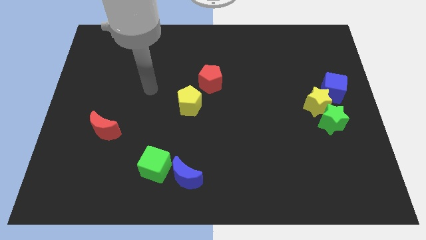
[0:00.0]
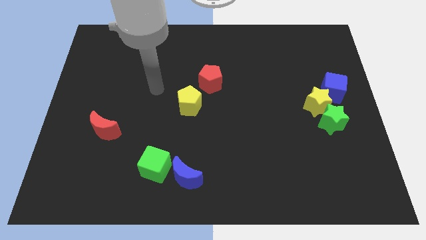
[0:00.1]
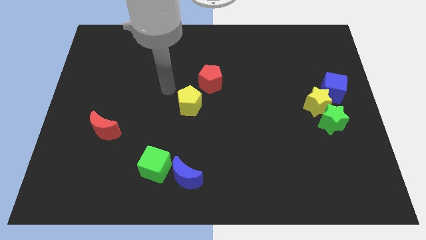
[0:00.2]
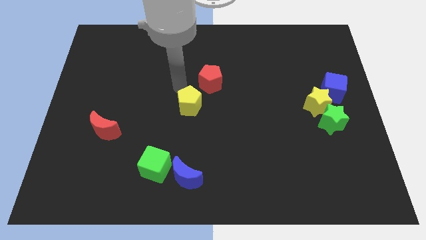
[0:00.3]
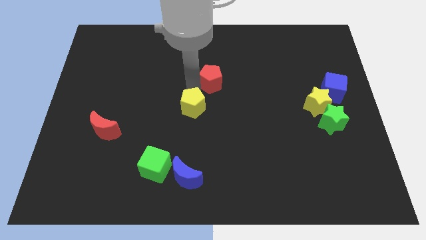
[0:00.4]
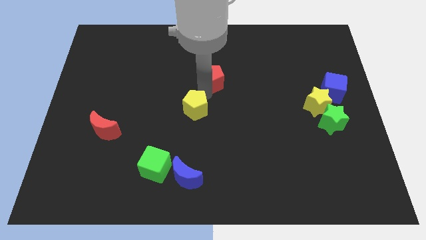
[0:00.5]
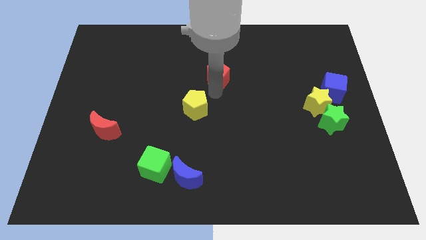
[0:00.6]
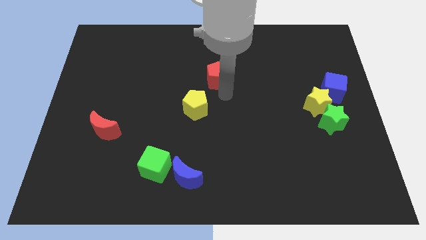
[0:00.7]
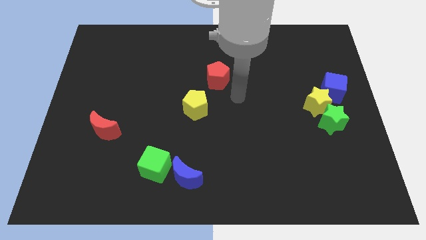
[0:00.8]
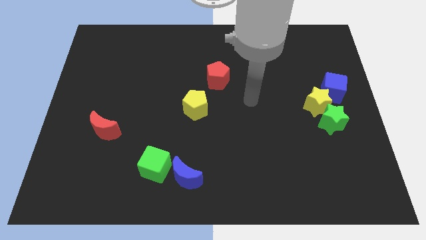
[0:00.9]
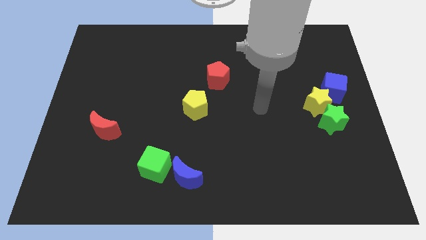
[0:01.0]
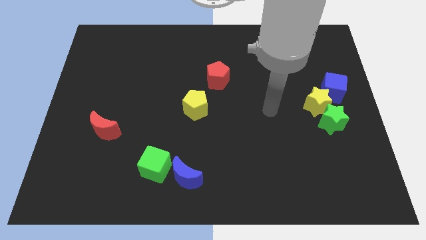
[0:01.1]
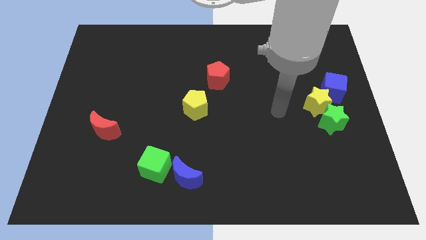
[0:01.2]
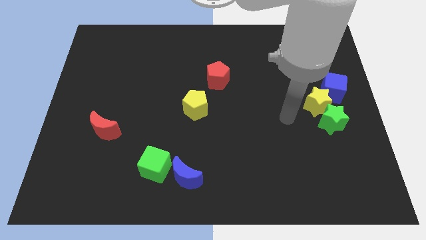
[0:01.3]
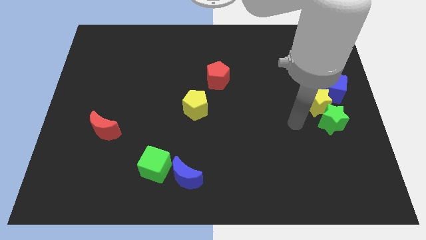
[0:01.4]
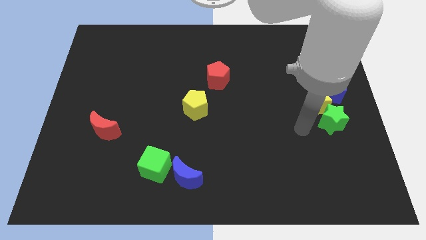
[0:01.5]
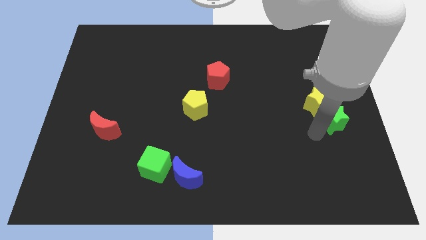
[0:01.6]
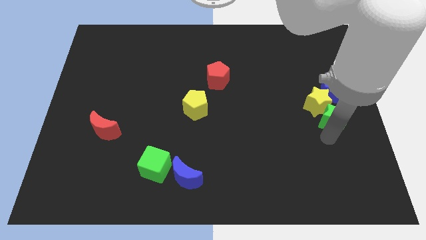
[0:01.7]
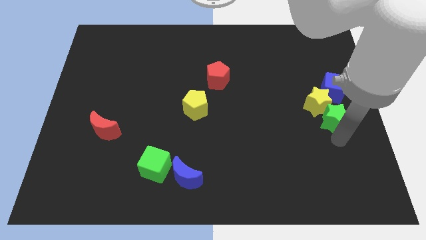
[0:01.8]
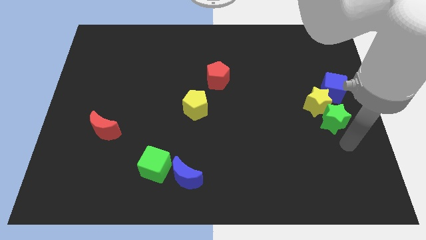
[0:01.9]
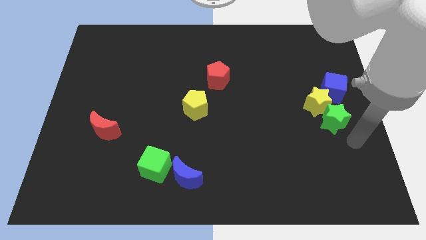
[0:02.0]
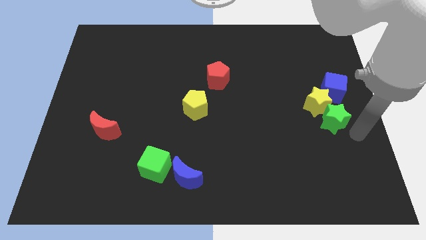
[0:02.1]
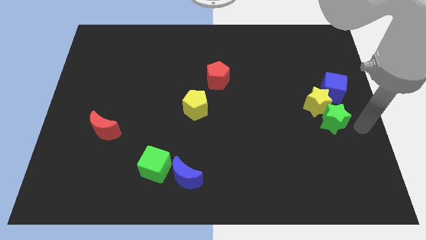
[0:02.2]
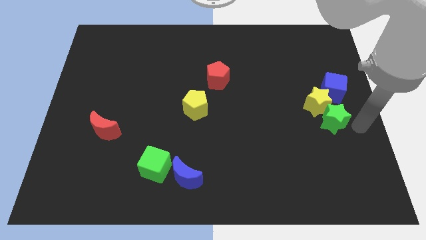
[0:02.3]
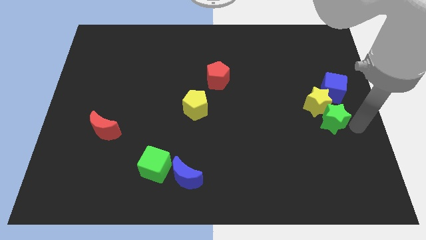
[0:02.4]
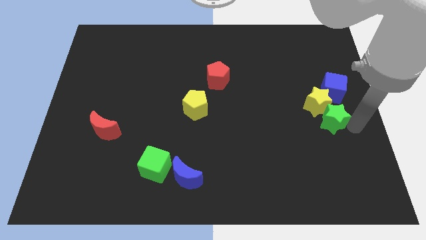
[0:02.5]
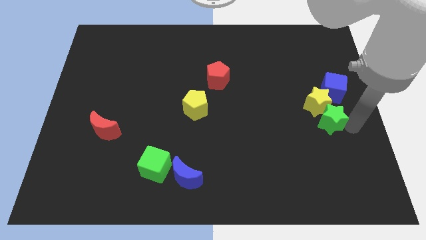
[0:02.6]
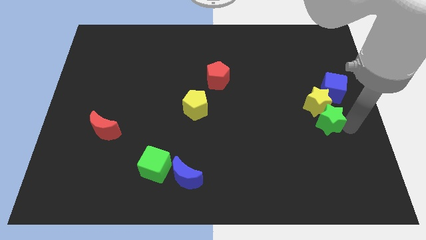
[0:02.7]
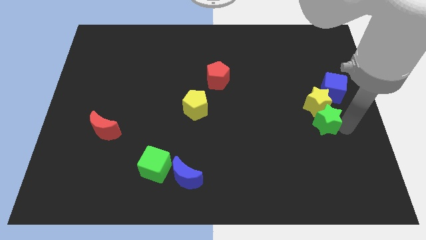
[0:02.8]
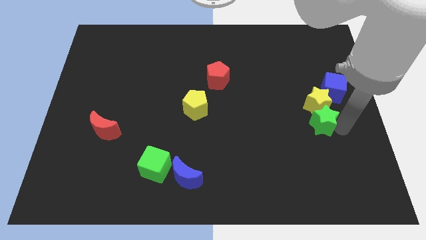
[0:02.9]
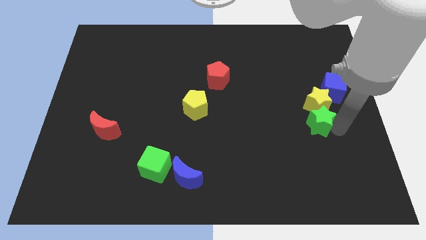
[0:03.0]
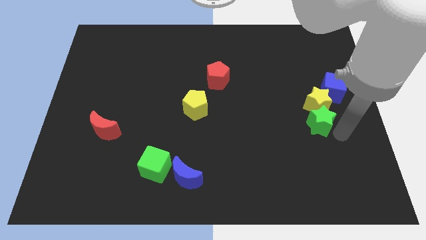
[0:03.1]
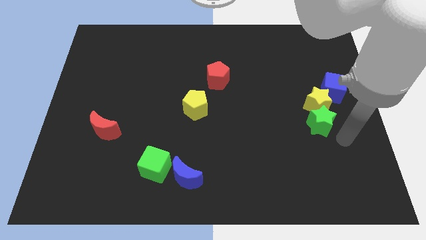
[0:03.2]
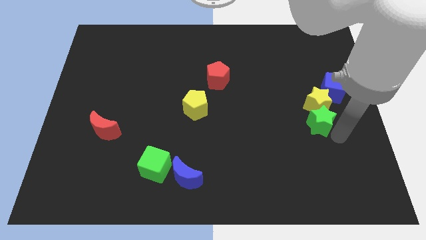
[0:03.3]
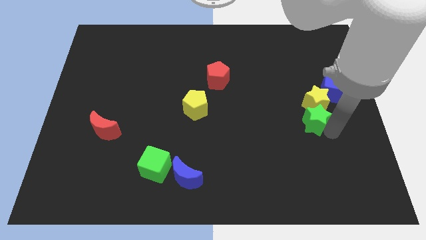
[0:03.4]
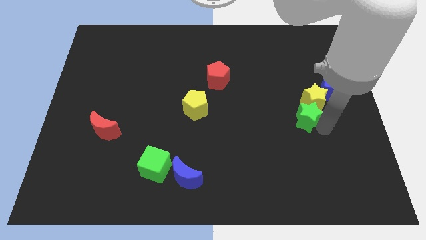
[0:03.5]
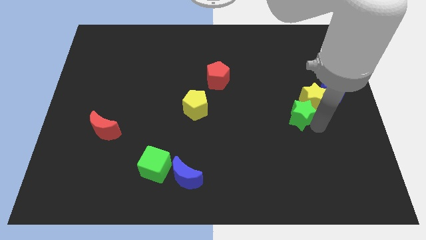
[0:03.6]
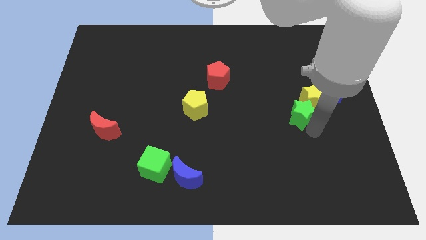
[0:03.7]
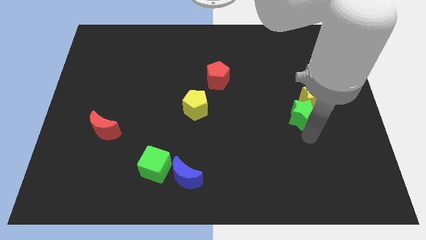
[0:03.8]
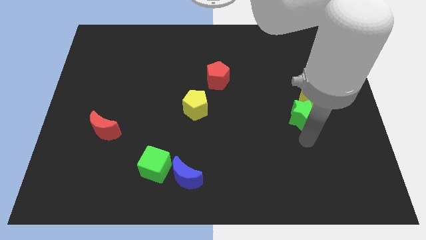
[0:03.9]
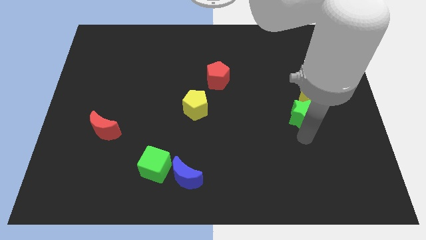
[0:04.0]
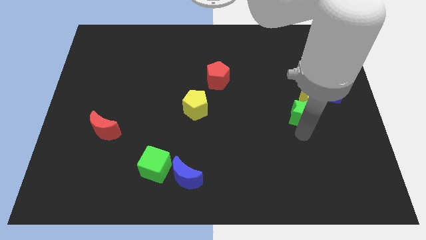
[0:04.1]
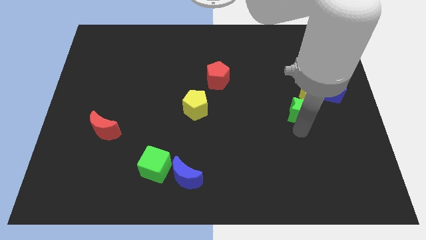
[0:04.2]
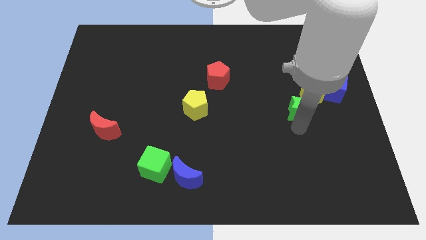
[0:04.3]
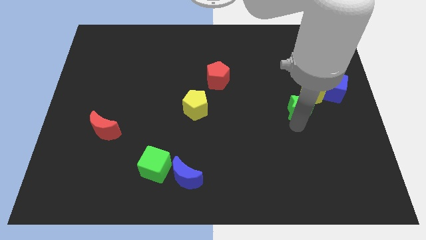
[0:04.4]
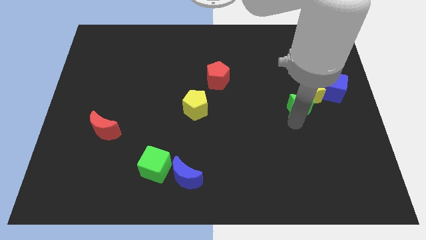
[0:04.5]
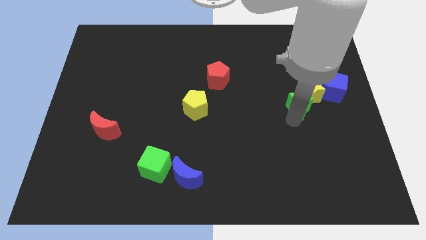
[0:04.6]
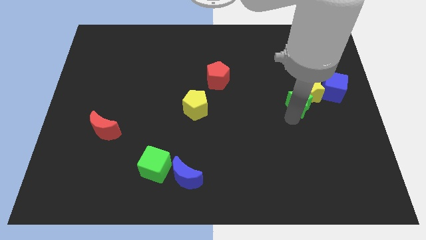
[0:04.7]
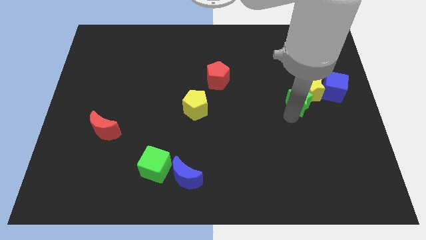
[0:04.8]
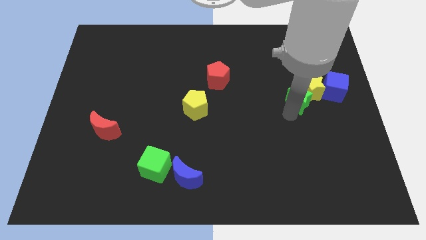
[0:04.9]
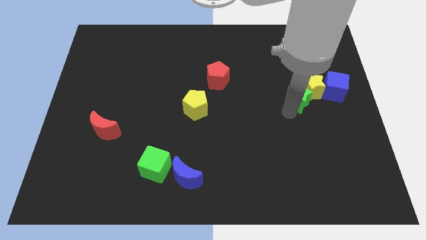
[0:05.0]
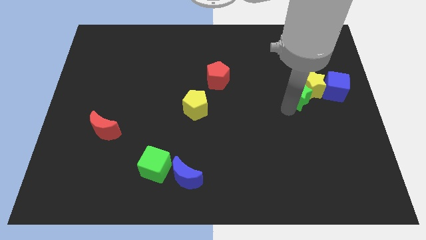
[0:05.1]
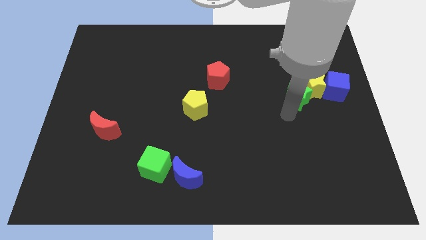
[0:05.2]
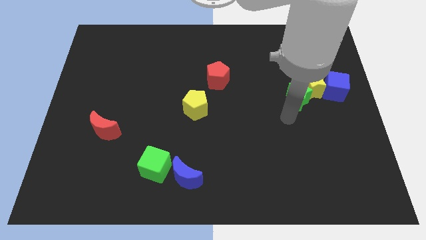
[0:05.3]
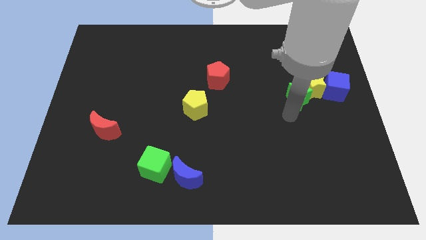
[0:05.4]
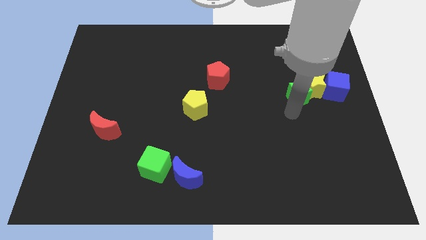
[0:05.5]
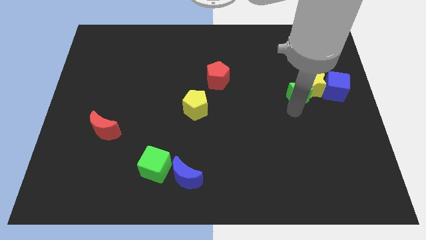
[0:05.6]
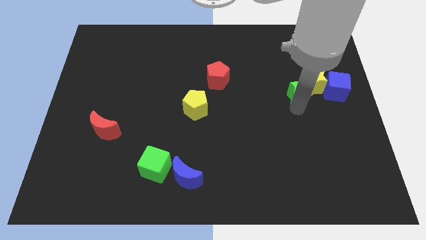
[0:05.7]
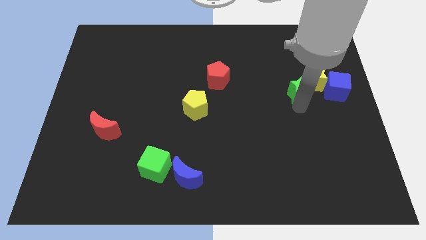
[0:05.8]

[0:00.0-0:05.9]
move the green star a bit up

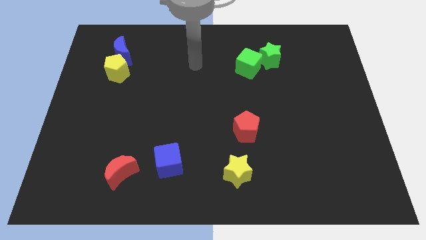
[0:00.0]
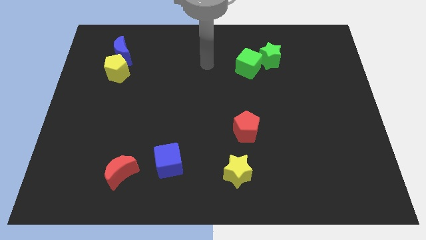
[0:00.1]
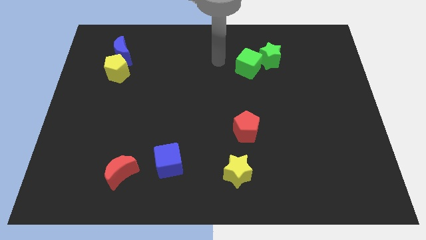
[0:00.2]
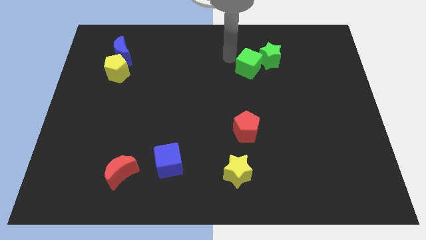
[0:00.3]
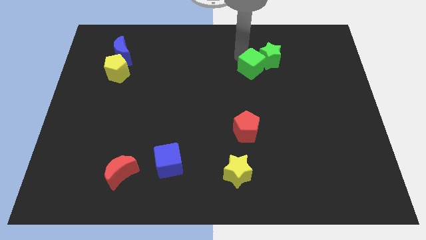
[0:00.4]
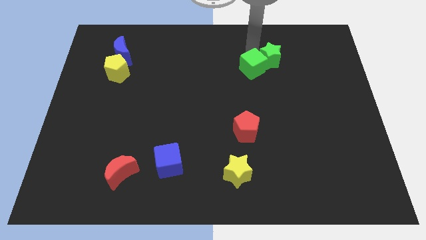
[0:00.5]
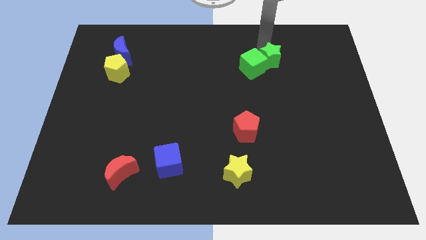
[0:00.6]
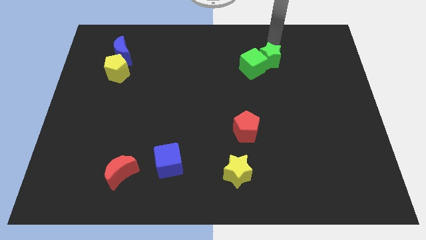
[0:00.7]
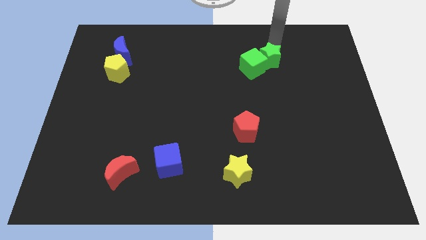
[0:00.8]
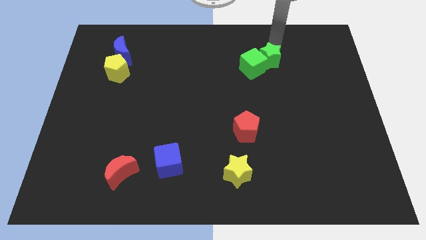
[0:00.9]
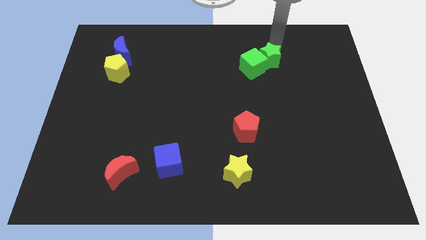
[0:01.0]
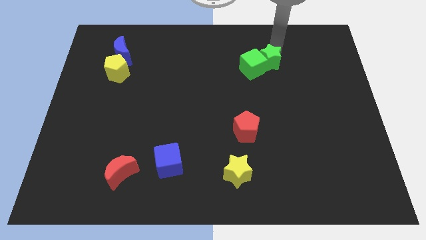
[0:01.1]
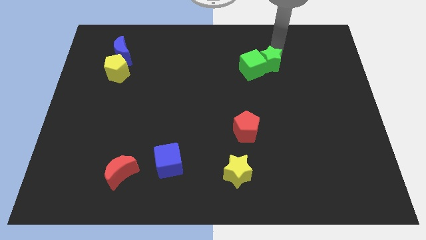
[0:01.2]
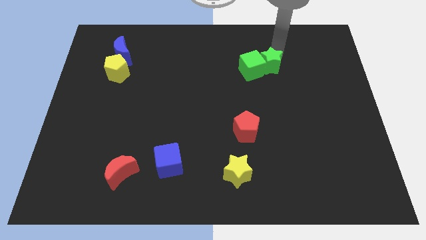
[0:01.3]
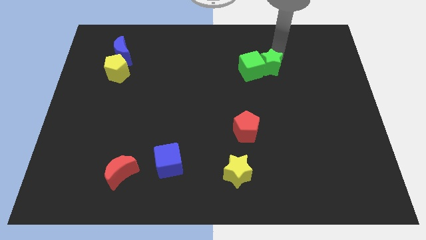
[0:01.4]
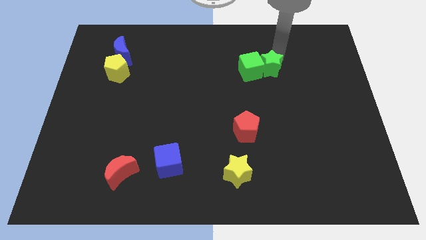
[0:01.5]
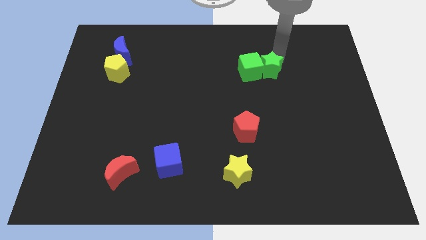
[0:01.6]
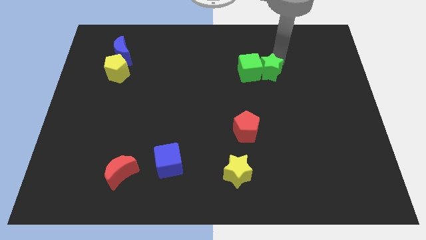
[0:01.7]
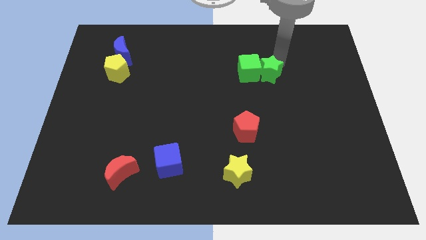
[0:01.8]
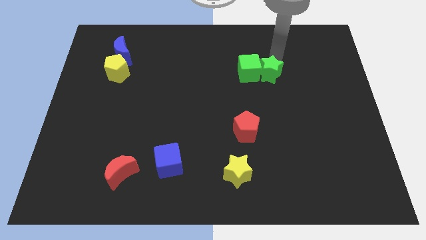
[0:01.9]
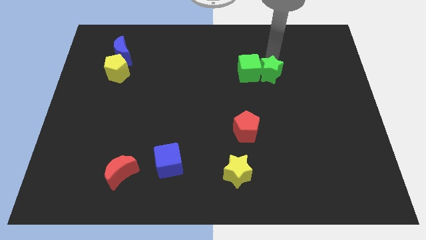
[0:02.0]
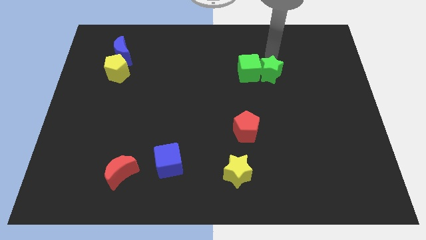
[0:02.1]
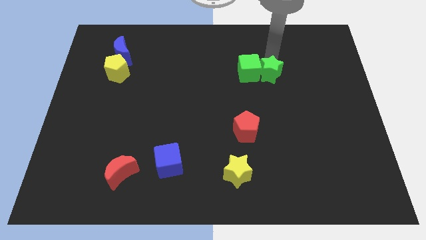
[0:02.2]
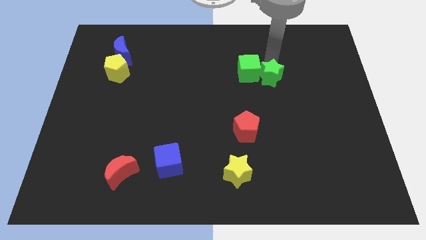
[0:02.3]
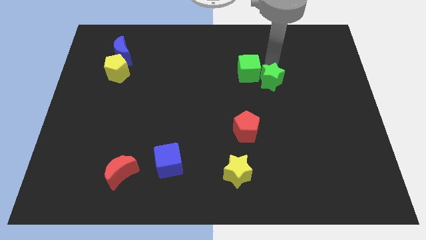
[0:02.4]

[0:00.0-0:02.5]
push the green star down slightly
